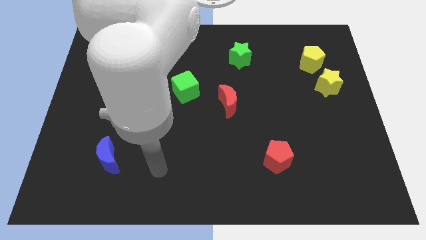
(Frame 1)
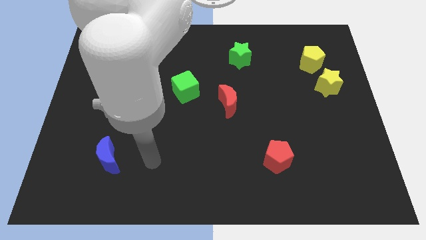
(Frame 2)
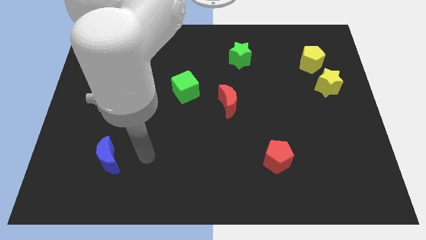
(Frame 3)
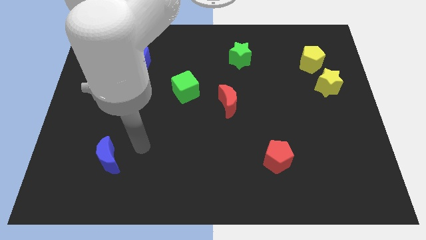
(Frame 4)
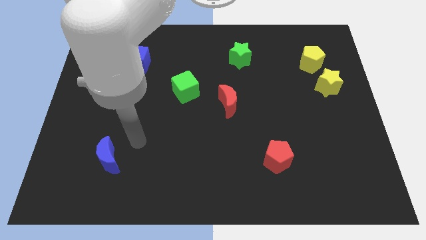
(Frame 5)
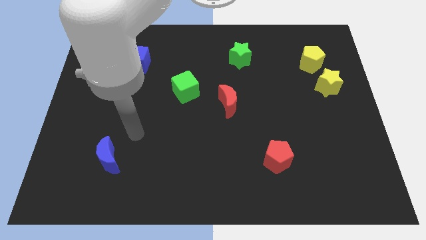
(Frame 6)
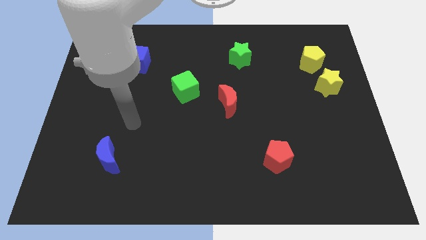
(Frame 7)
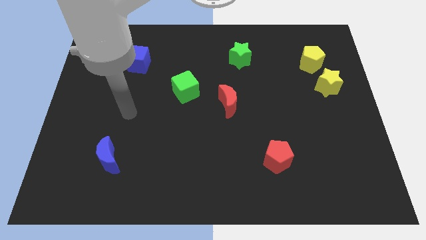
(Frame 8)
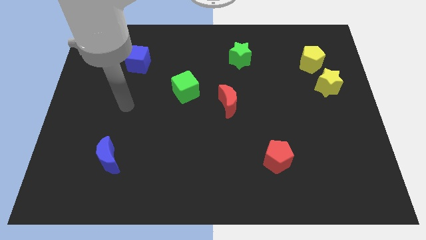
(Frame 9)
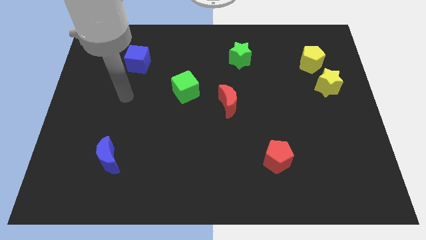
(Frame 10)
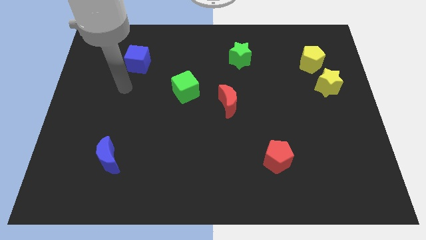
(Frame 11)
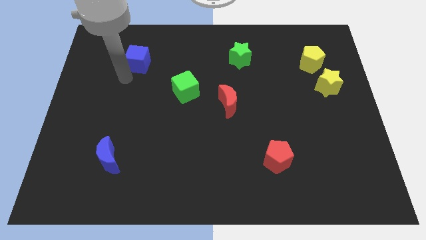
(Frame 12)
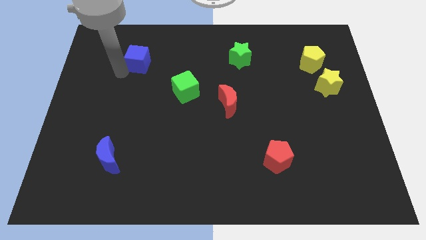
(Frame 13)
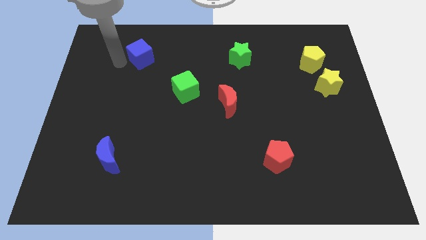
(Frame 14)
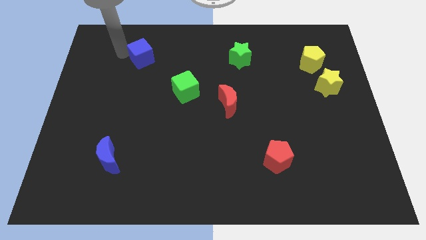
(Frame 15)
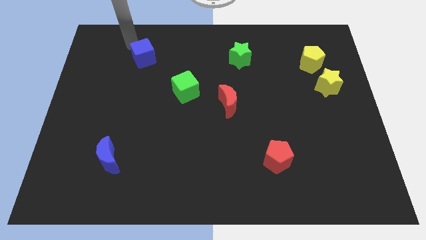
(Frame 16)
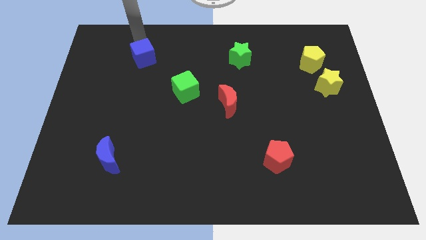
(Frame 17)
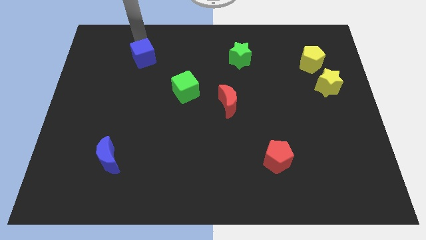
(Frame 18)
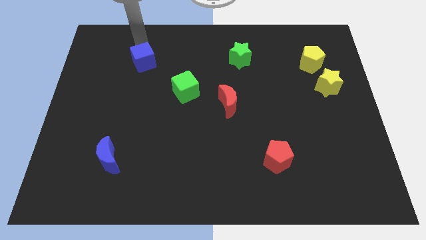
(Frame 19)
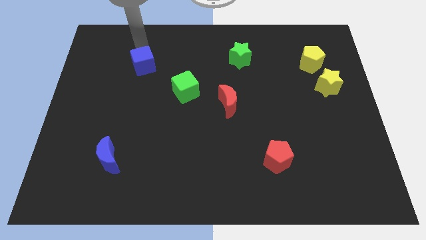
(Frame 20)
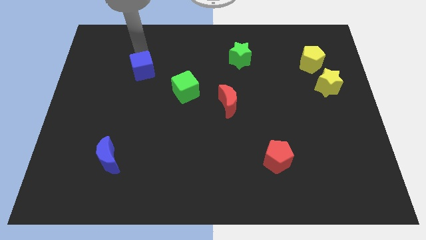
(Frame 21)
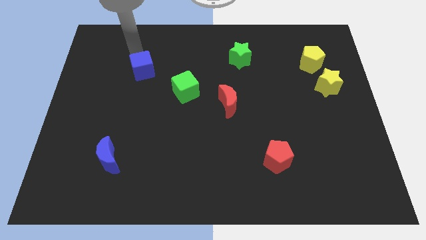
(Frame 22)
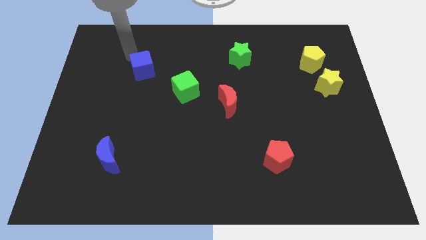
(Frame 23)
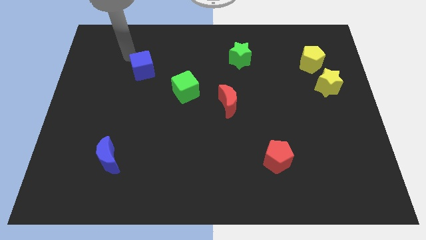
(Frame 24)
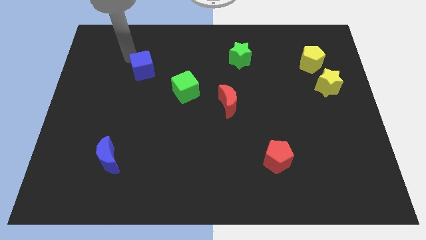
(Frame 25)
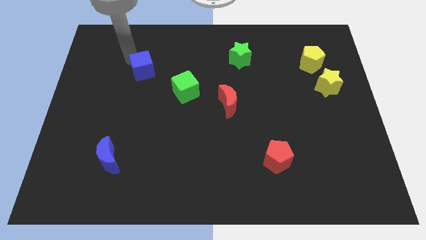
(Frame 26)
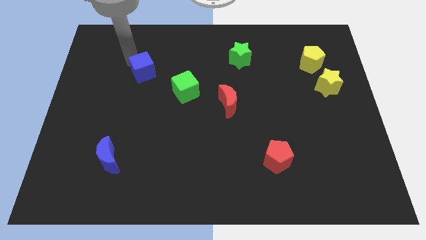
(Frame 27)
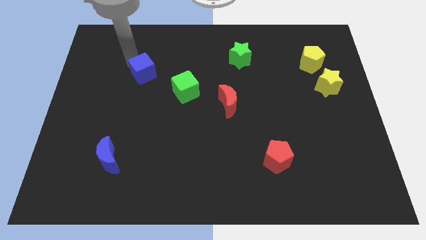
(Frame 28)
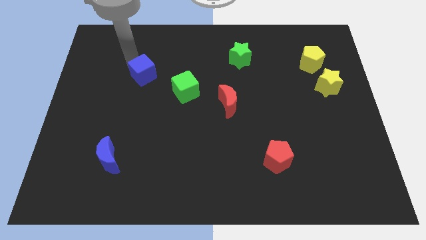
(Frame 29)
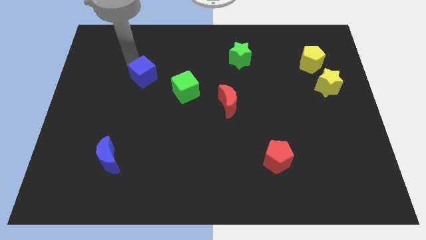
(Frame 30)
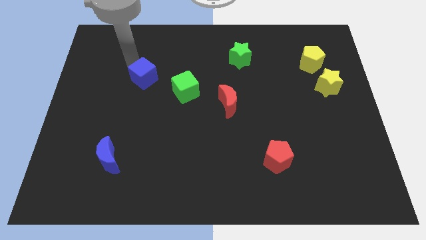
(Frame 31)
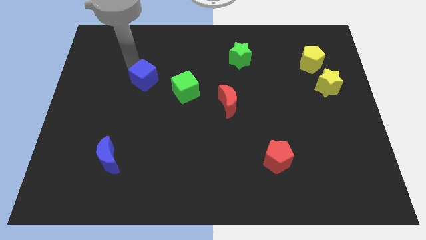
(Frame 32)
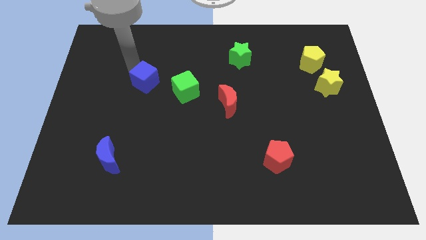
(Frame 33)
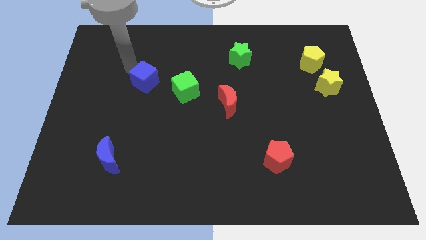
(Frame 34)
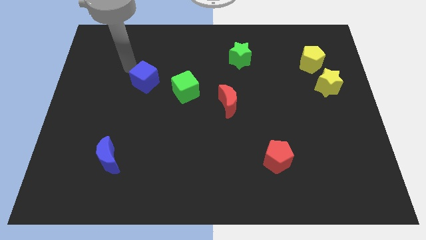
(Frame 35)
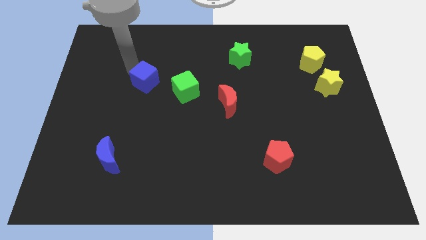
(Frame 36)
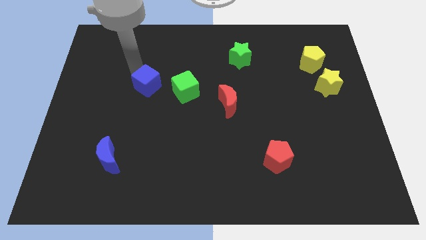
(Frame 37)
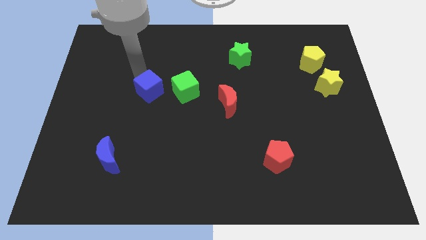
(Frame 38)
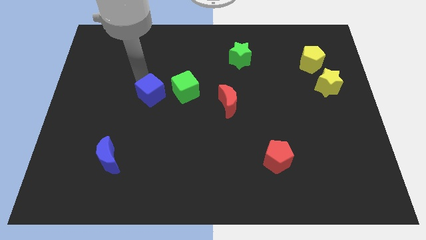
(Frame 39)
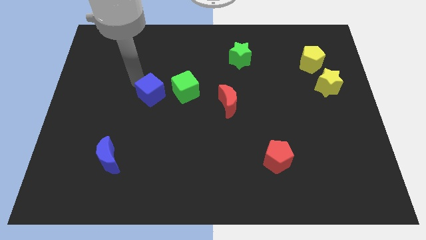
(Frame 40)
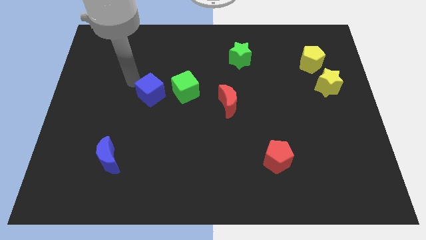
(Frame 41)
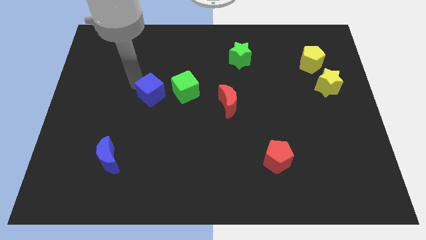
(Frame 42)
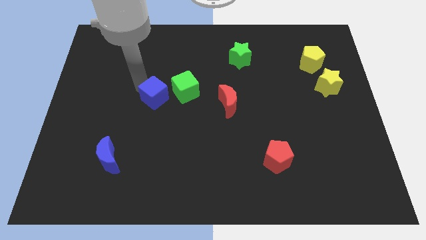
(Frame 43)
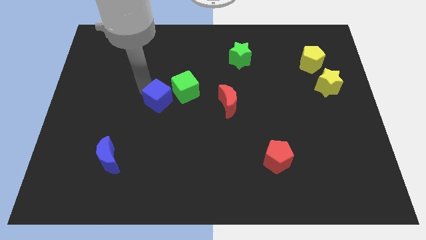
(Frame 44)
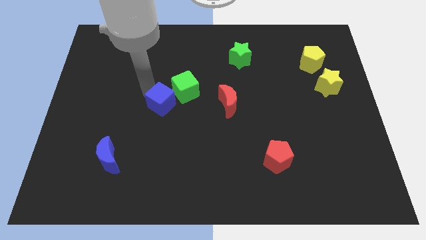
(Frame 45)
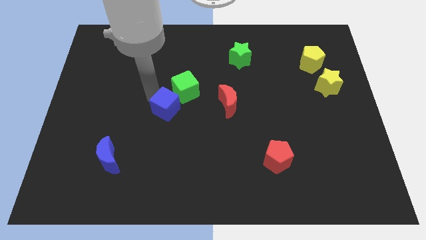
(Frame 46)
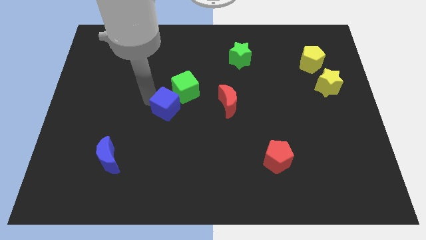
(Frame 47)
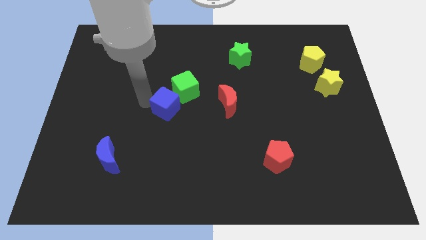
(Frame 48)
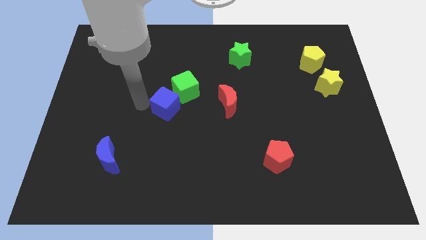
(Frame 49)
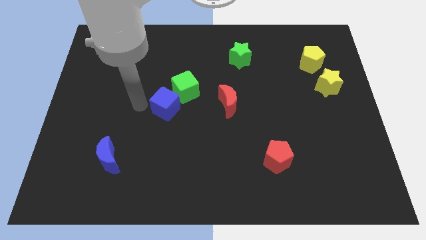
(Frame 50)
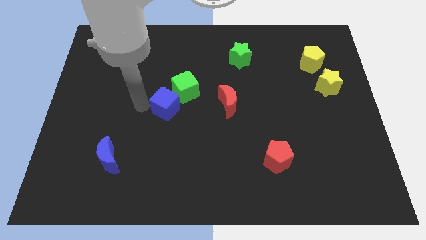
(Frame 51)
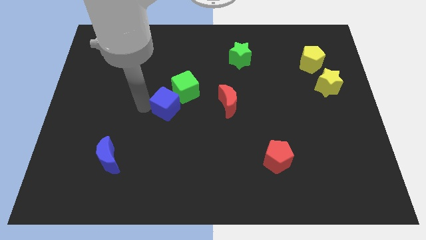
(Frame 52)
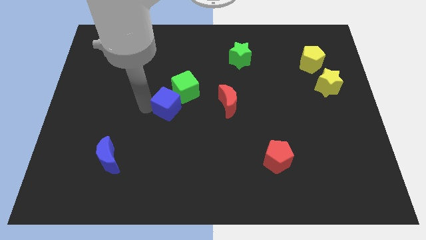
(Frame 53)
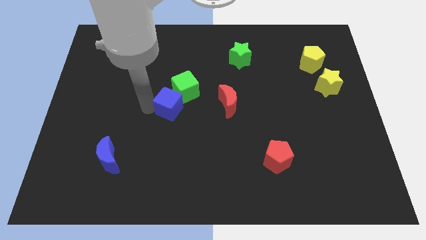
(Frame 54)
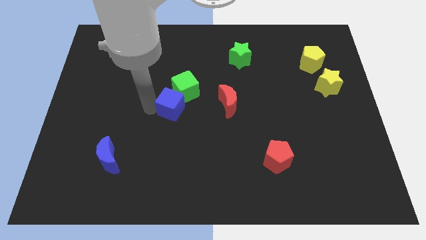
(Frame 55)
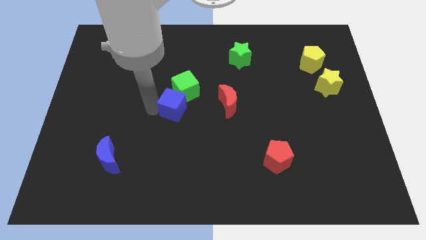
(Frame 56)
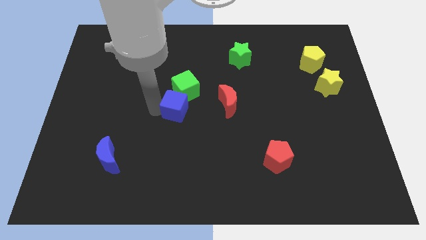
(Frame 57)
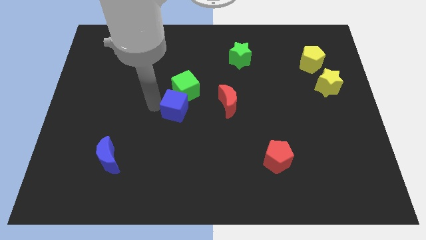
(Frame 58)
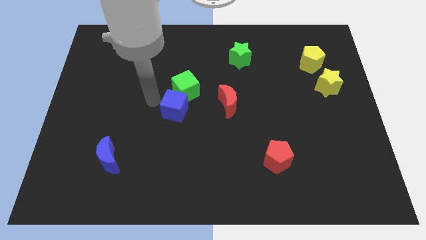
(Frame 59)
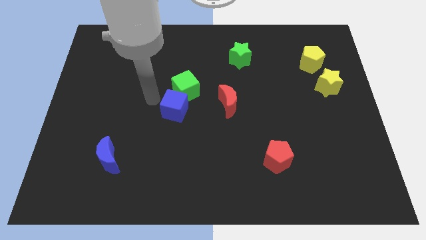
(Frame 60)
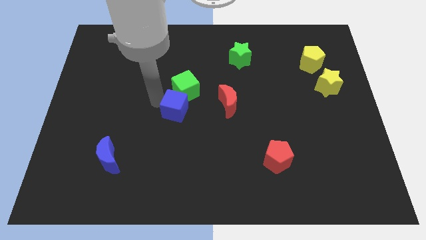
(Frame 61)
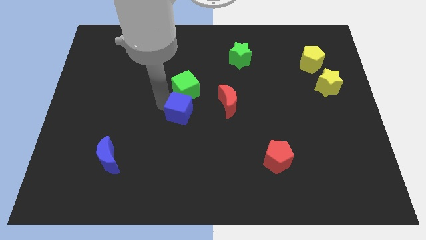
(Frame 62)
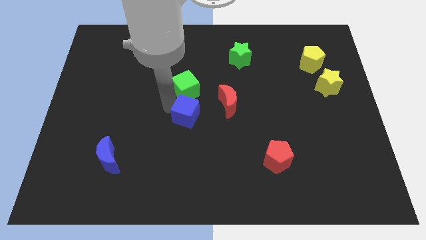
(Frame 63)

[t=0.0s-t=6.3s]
move the blue cube downwards and to the right

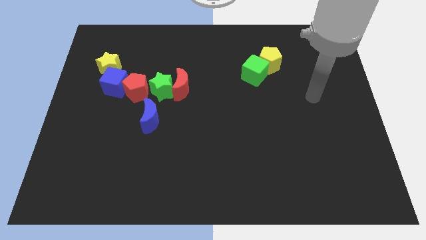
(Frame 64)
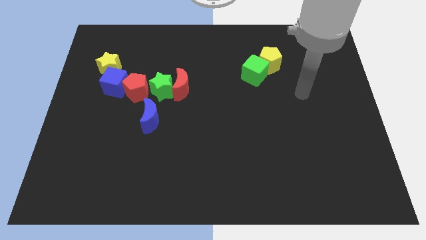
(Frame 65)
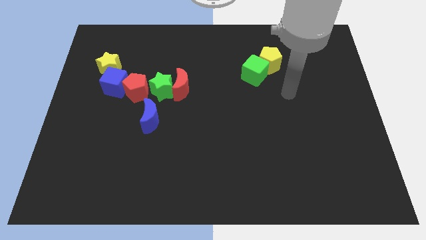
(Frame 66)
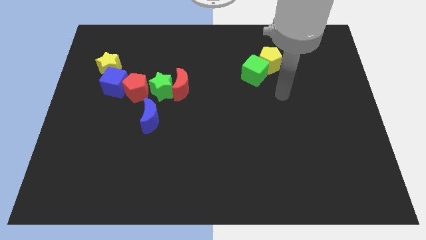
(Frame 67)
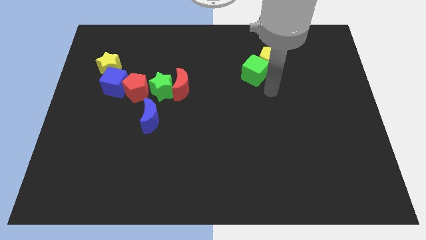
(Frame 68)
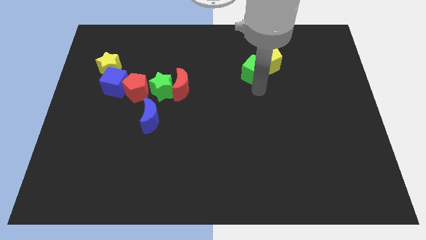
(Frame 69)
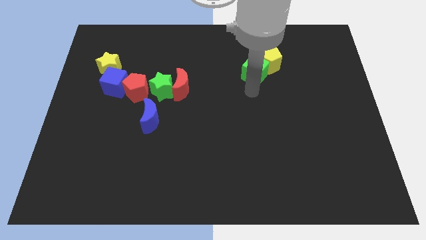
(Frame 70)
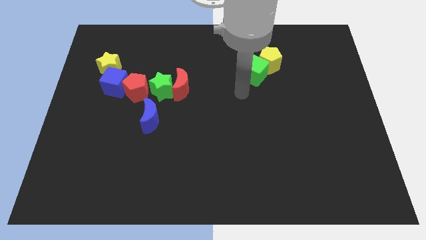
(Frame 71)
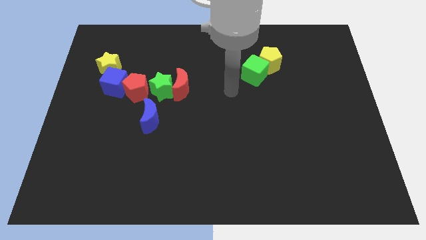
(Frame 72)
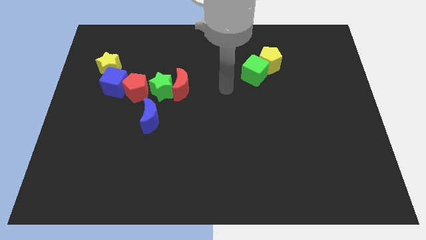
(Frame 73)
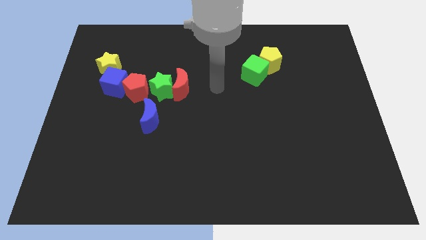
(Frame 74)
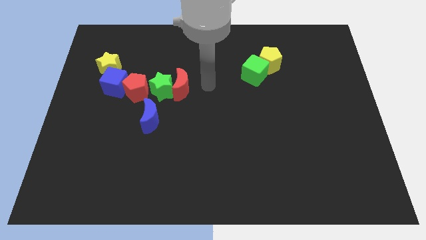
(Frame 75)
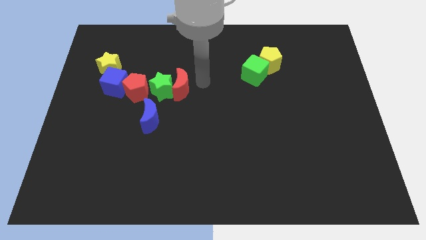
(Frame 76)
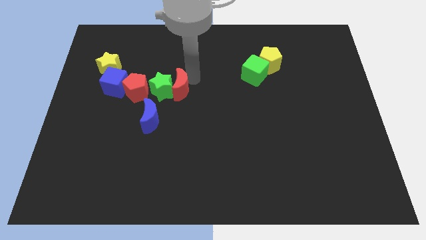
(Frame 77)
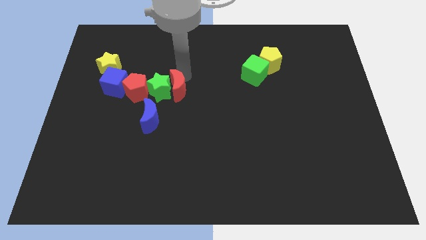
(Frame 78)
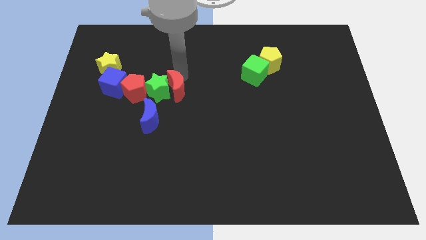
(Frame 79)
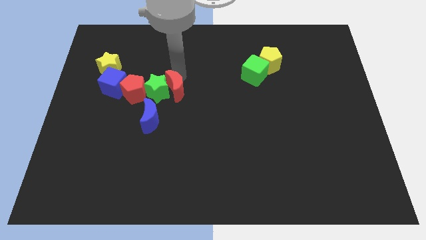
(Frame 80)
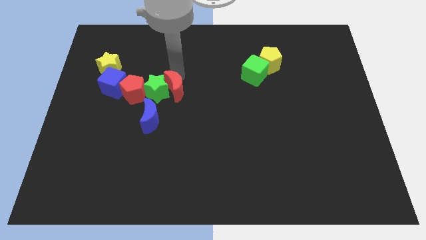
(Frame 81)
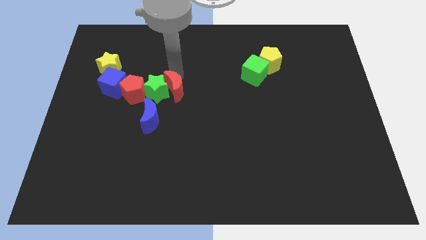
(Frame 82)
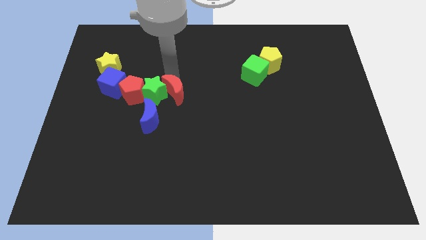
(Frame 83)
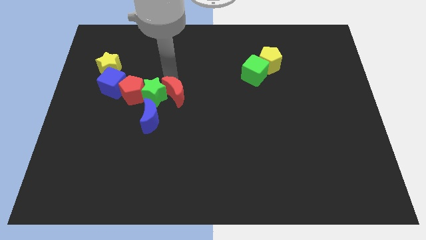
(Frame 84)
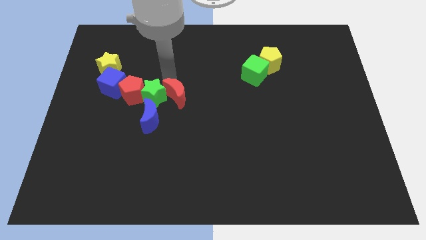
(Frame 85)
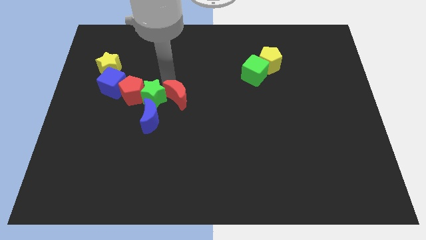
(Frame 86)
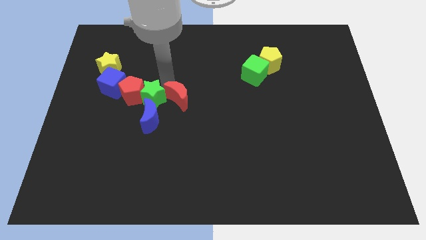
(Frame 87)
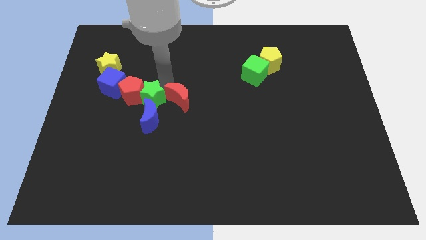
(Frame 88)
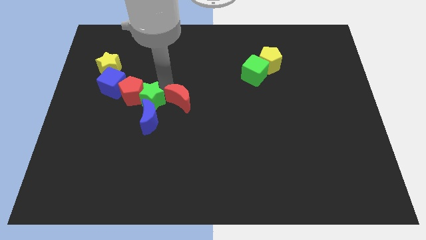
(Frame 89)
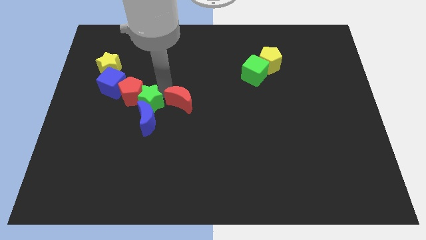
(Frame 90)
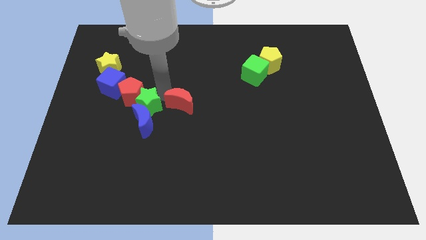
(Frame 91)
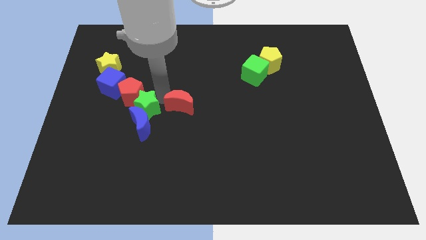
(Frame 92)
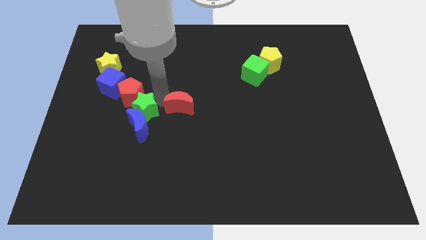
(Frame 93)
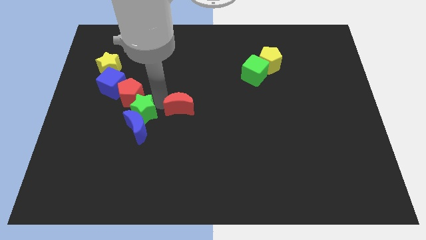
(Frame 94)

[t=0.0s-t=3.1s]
move the green star a little bit downwards and left
